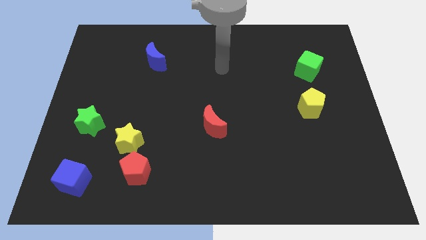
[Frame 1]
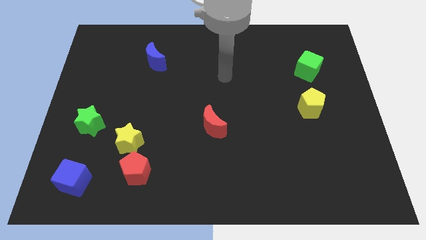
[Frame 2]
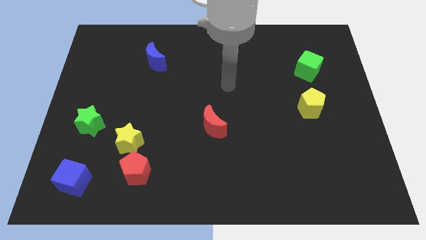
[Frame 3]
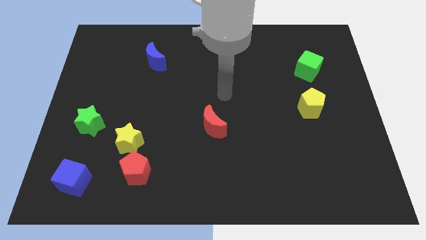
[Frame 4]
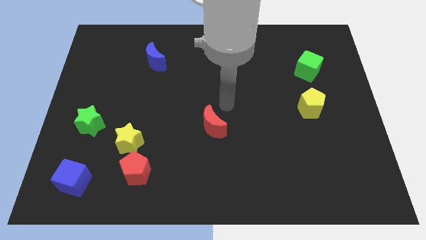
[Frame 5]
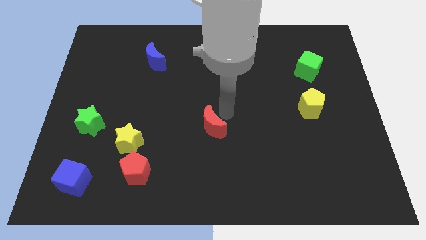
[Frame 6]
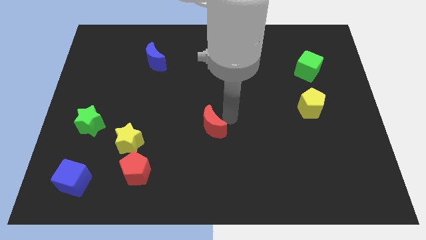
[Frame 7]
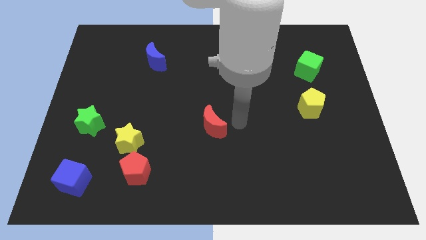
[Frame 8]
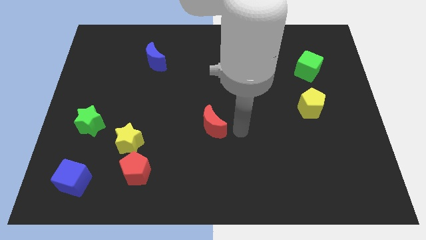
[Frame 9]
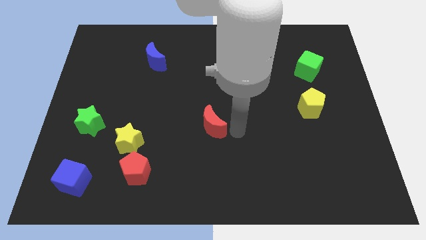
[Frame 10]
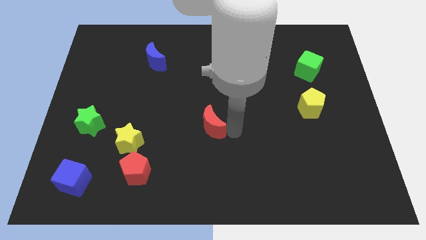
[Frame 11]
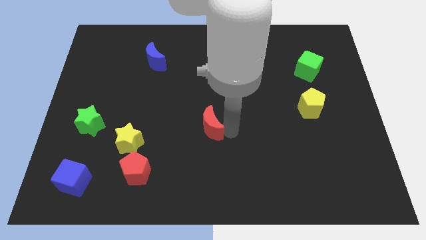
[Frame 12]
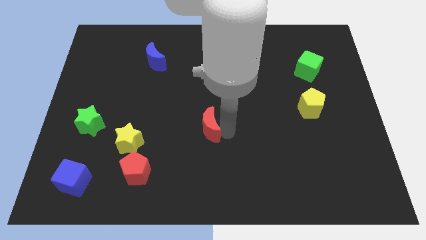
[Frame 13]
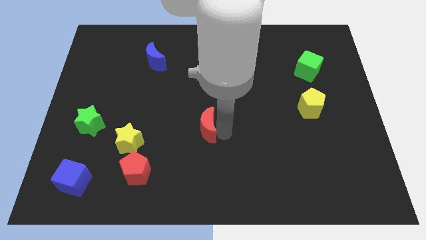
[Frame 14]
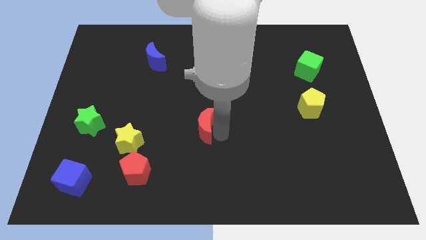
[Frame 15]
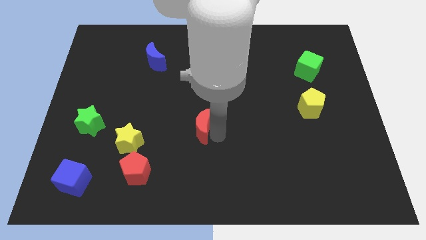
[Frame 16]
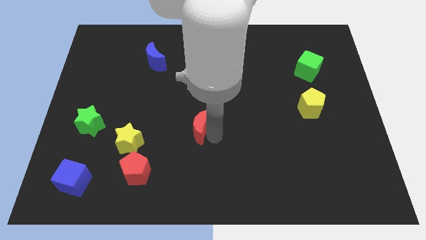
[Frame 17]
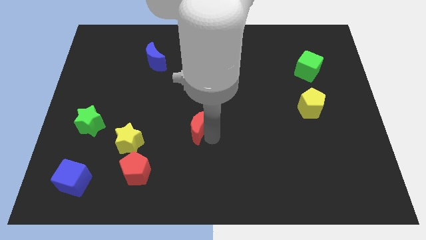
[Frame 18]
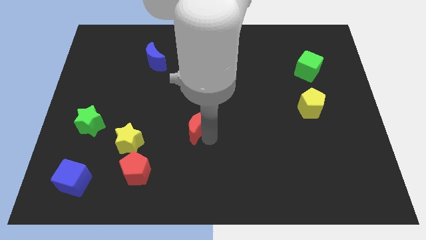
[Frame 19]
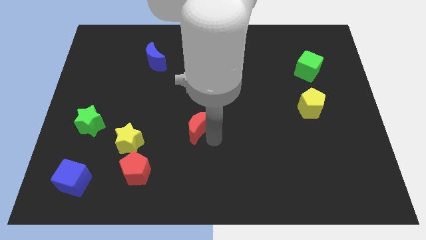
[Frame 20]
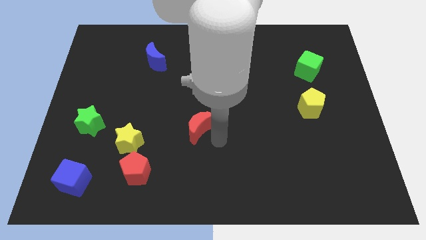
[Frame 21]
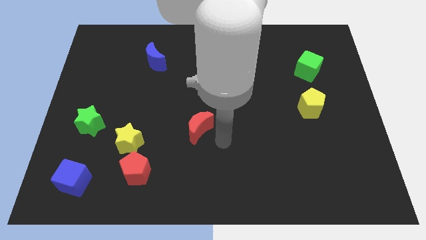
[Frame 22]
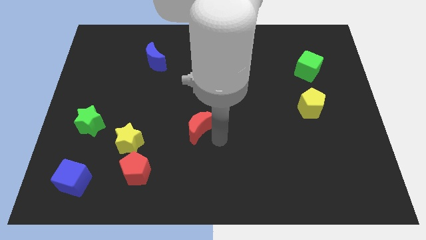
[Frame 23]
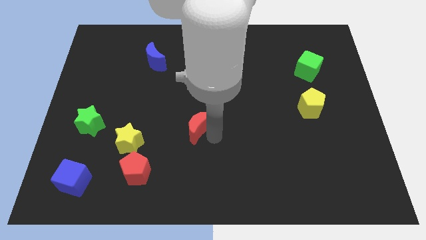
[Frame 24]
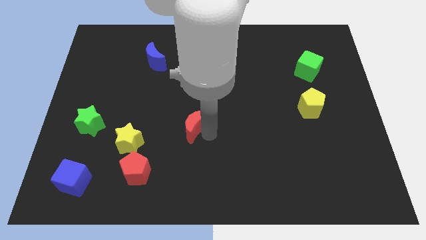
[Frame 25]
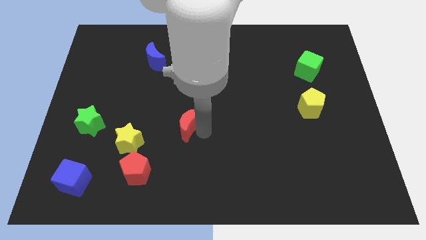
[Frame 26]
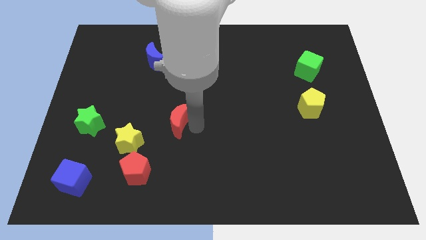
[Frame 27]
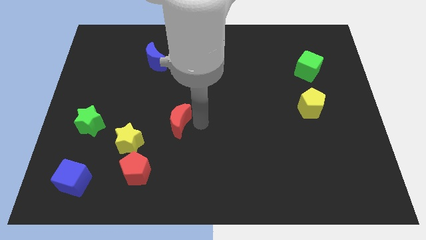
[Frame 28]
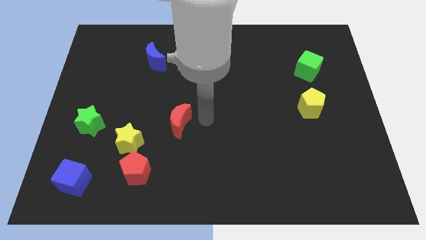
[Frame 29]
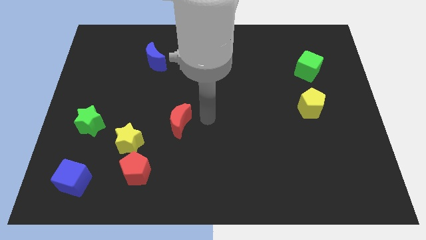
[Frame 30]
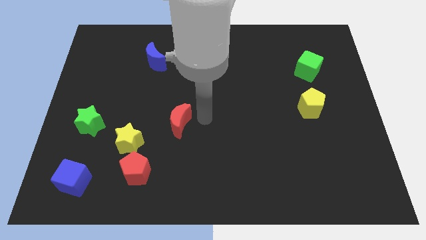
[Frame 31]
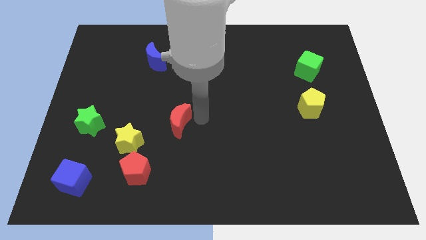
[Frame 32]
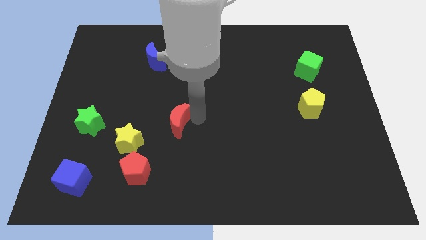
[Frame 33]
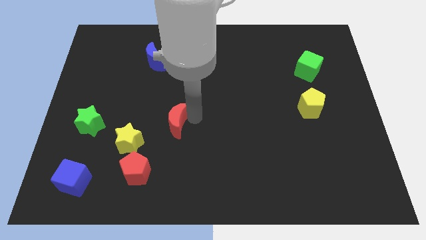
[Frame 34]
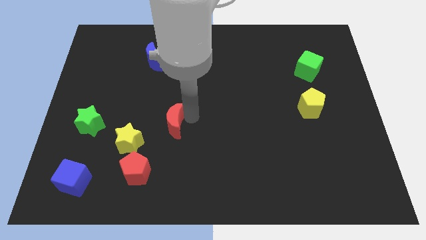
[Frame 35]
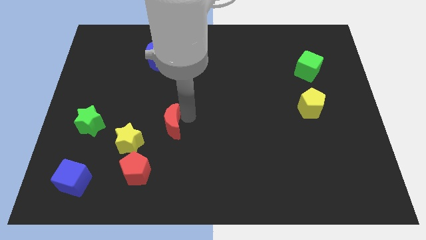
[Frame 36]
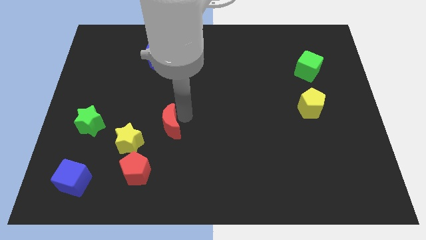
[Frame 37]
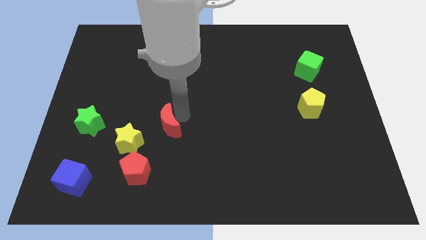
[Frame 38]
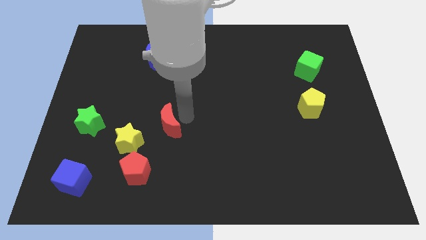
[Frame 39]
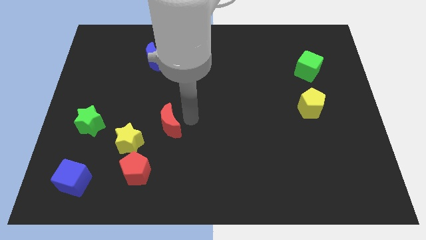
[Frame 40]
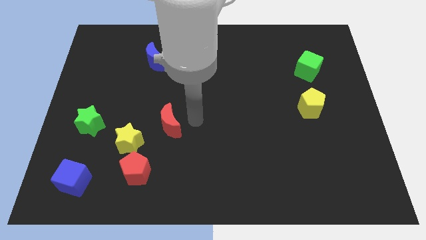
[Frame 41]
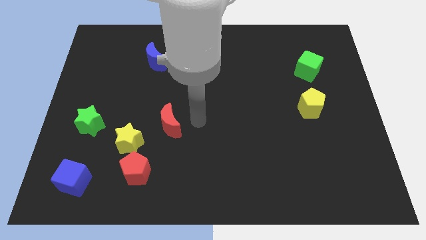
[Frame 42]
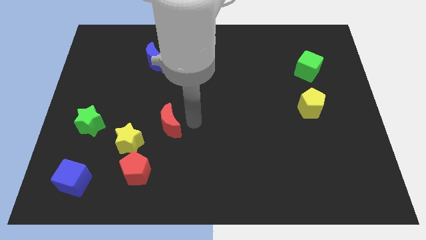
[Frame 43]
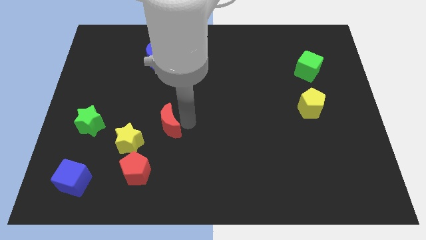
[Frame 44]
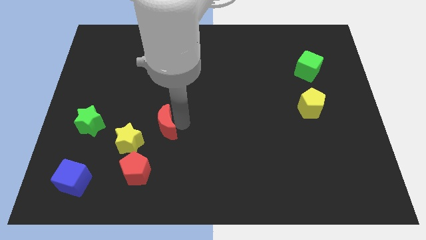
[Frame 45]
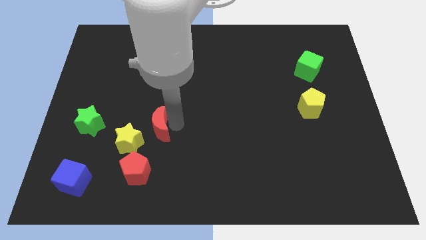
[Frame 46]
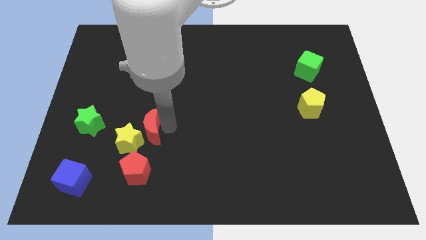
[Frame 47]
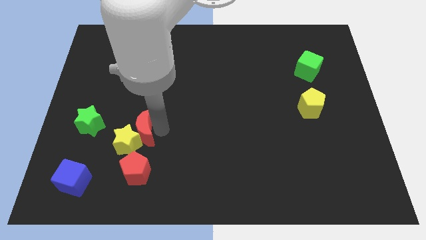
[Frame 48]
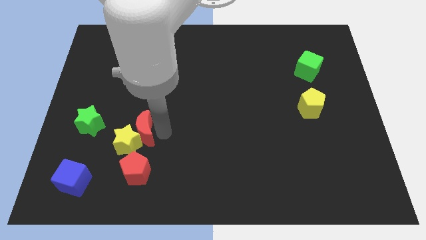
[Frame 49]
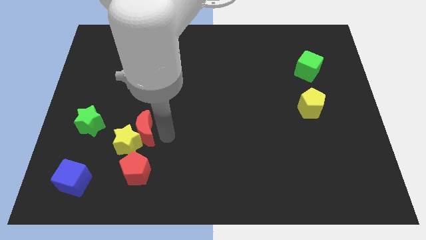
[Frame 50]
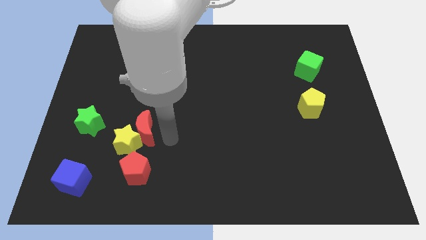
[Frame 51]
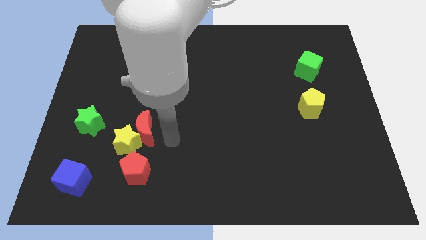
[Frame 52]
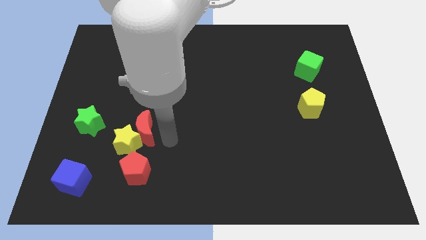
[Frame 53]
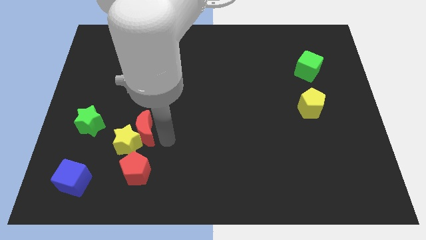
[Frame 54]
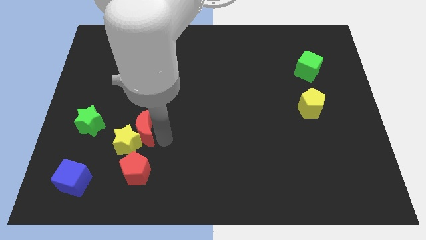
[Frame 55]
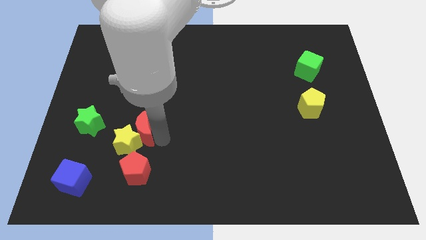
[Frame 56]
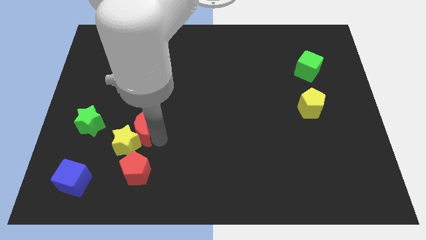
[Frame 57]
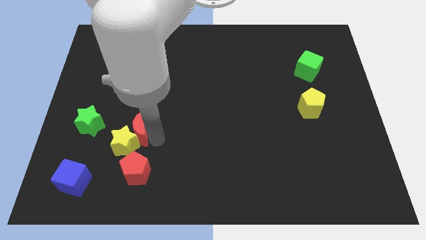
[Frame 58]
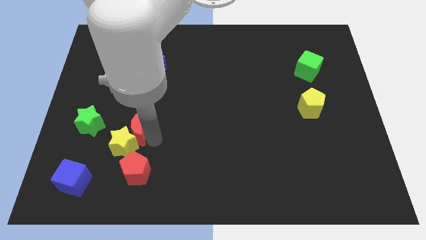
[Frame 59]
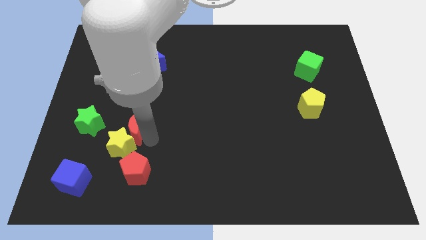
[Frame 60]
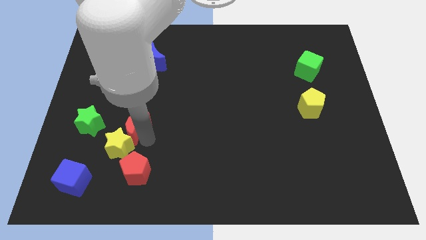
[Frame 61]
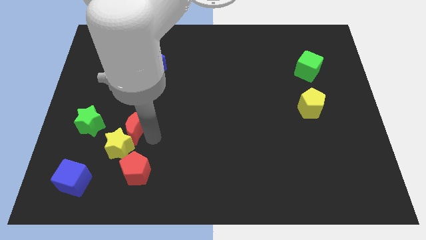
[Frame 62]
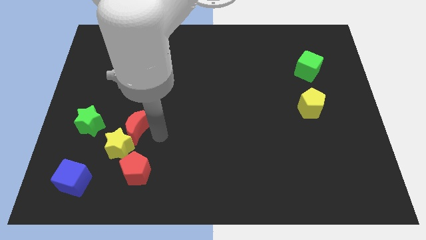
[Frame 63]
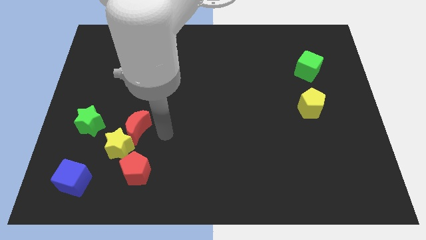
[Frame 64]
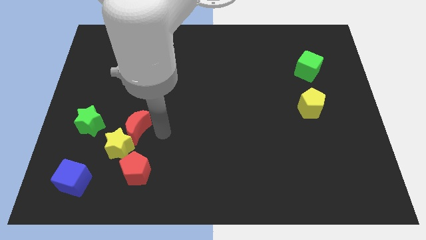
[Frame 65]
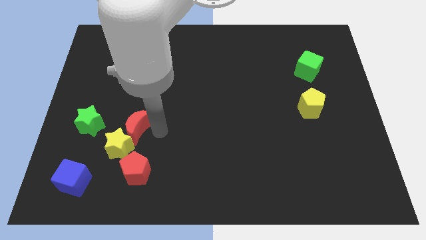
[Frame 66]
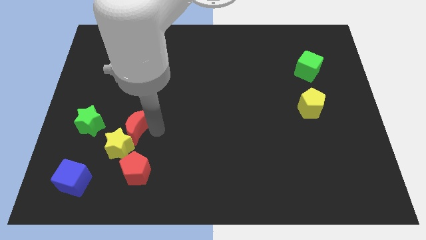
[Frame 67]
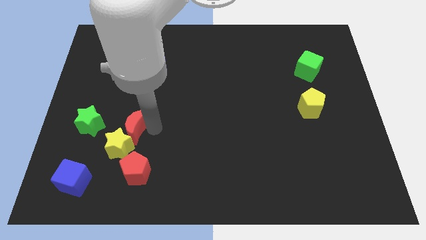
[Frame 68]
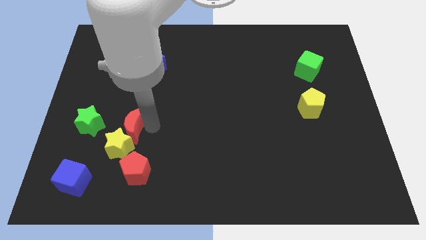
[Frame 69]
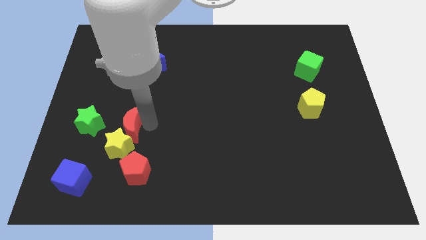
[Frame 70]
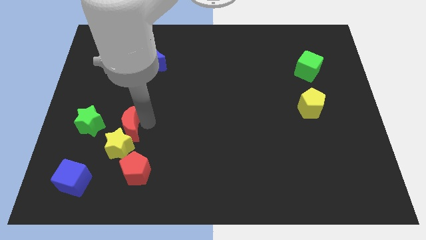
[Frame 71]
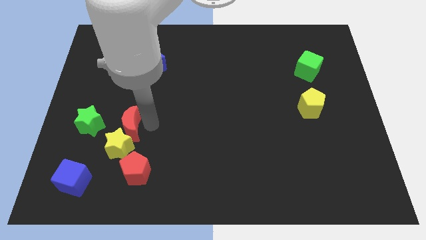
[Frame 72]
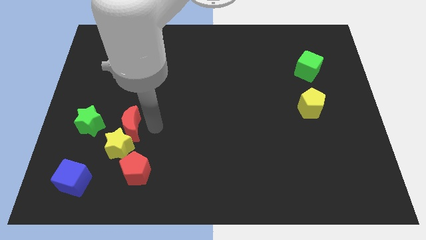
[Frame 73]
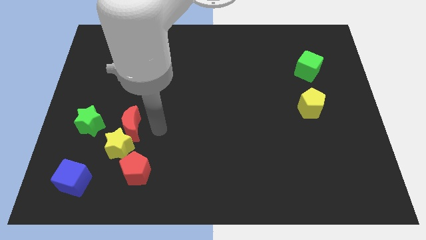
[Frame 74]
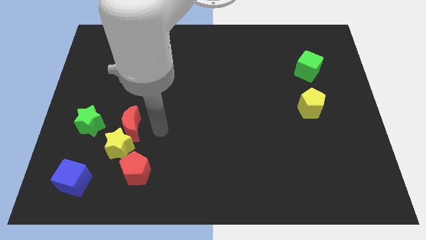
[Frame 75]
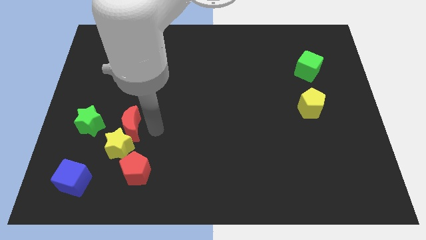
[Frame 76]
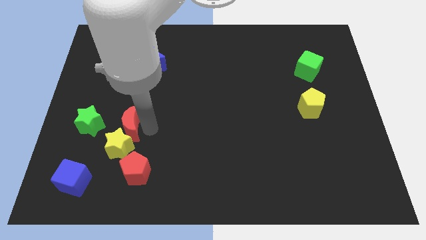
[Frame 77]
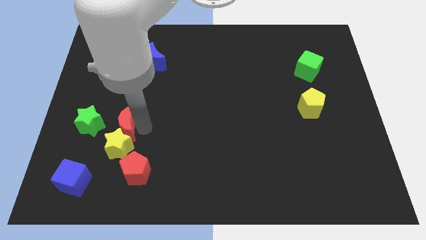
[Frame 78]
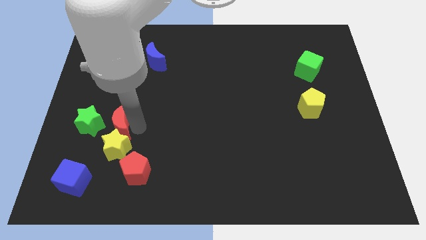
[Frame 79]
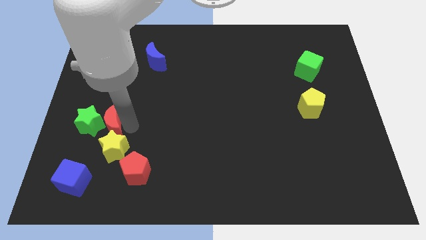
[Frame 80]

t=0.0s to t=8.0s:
slide the red moon next to the green star

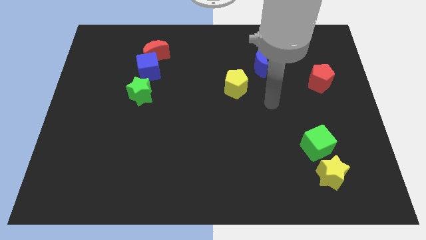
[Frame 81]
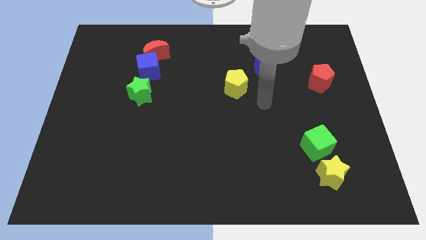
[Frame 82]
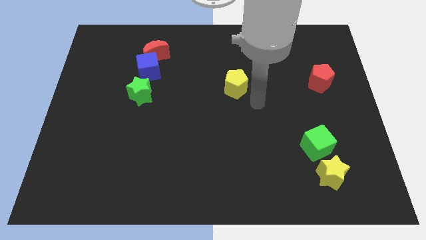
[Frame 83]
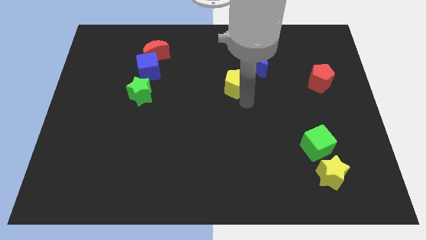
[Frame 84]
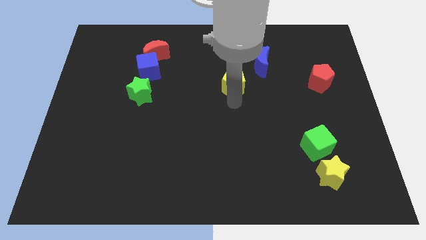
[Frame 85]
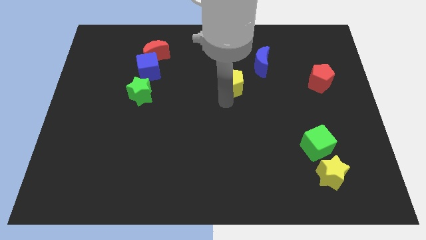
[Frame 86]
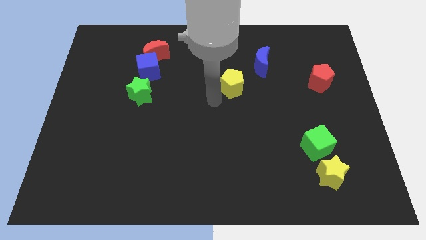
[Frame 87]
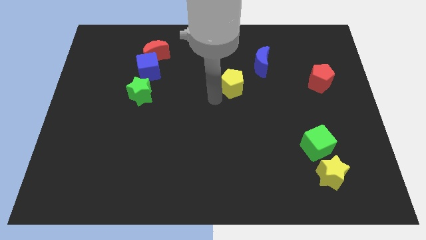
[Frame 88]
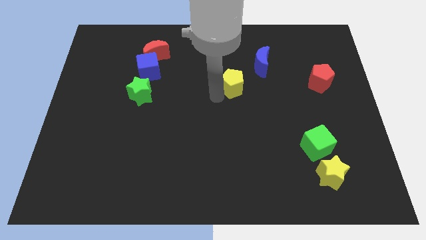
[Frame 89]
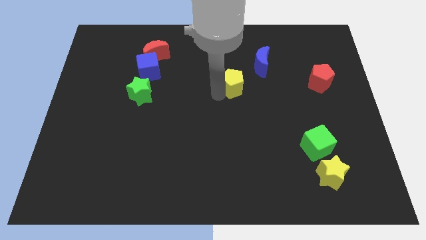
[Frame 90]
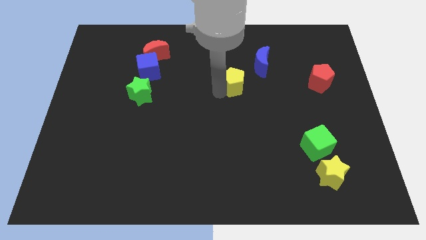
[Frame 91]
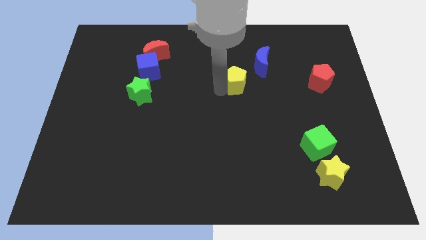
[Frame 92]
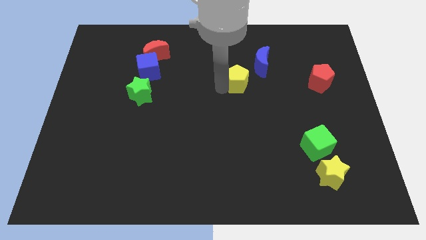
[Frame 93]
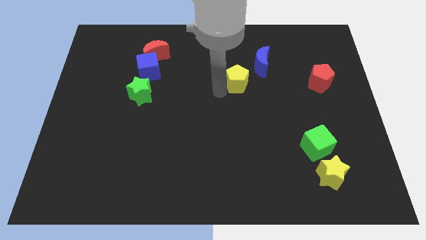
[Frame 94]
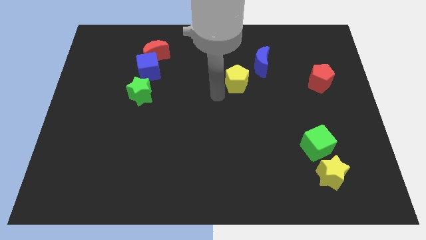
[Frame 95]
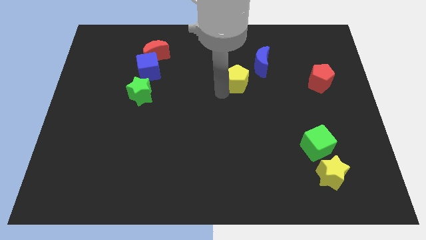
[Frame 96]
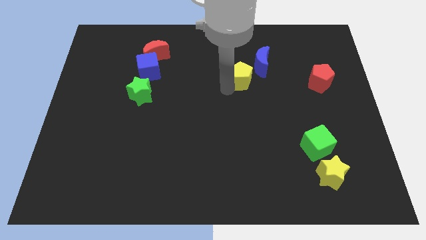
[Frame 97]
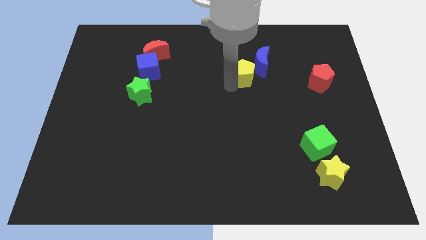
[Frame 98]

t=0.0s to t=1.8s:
push the yellow pentagon to the blue moon
